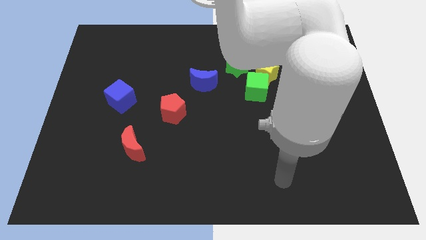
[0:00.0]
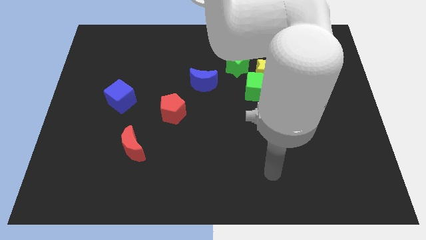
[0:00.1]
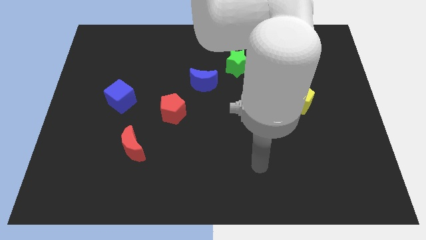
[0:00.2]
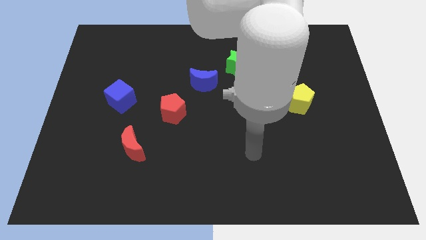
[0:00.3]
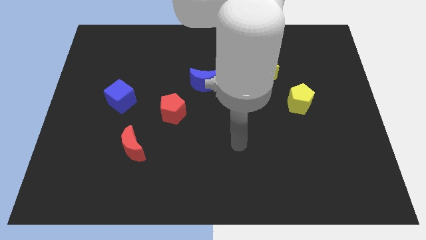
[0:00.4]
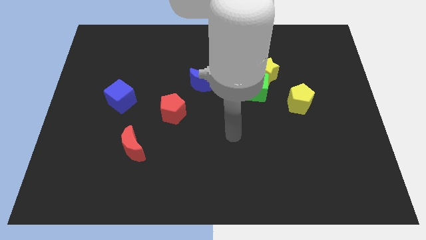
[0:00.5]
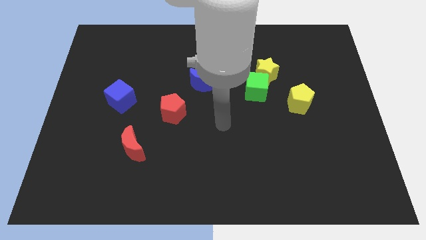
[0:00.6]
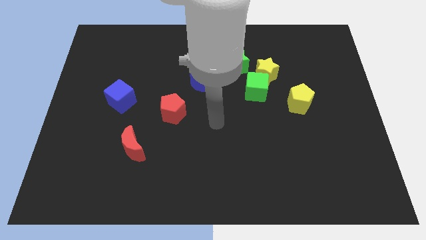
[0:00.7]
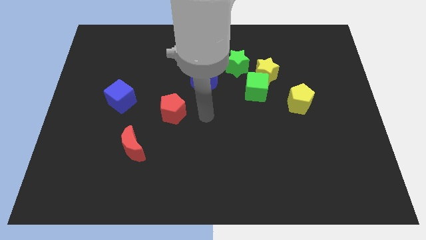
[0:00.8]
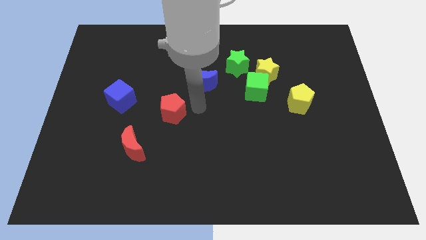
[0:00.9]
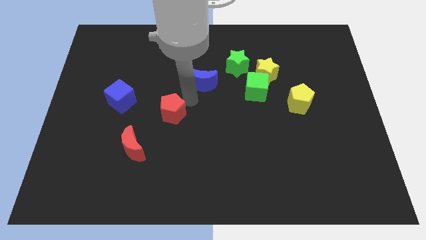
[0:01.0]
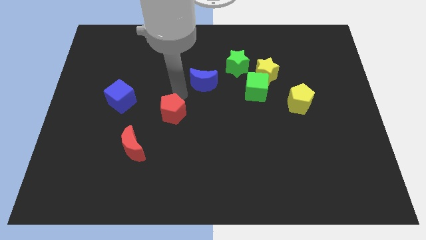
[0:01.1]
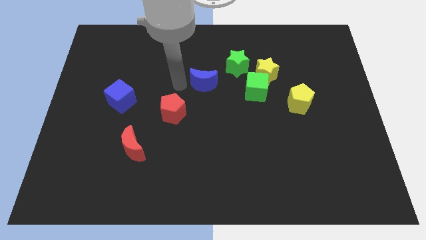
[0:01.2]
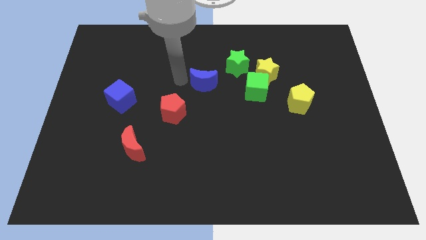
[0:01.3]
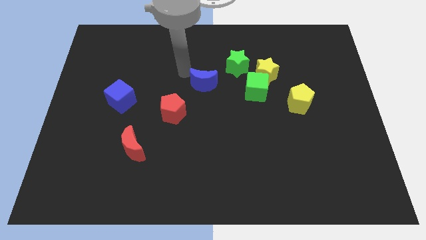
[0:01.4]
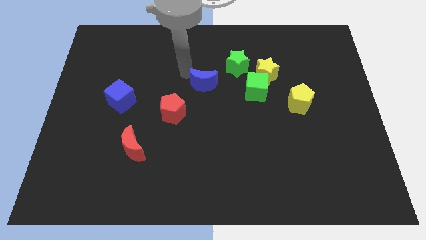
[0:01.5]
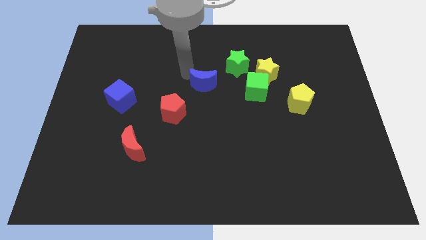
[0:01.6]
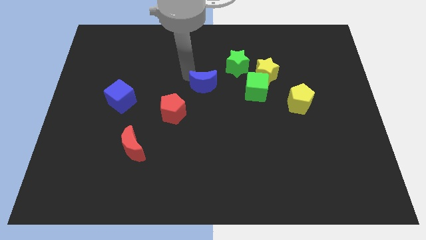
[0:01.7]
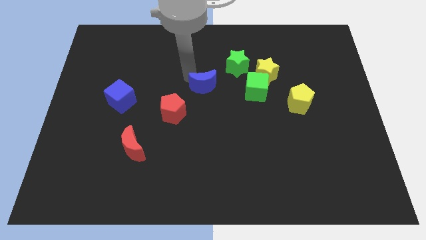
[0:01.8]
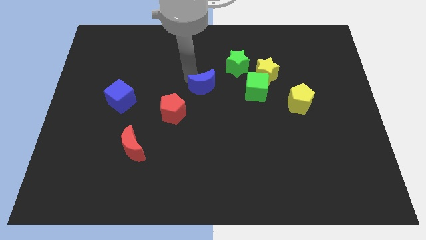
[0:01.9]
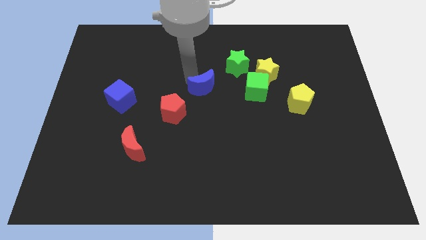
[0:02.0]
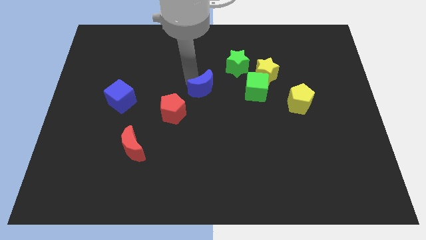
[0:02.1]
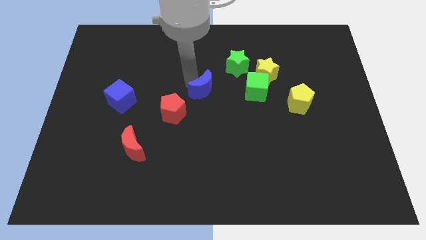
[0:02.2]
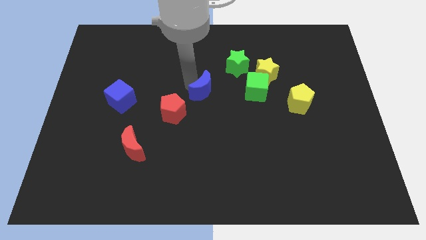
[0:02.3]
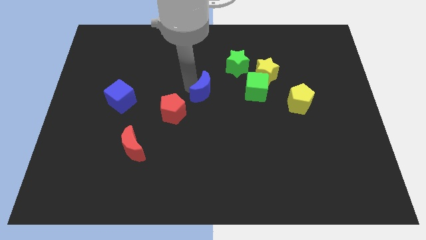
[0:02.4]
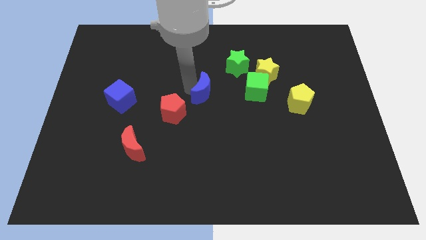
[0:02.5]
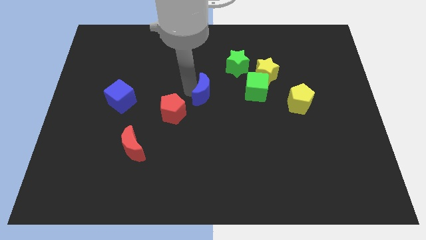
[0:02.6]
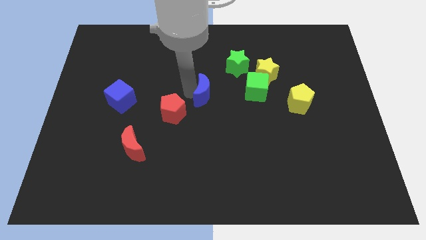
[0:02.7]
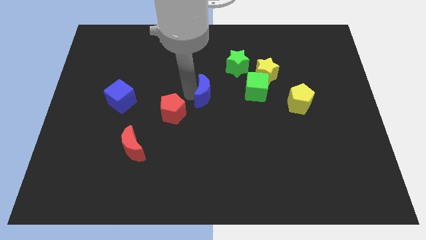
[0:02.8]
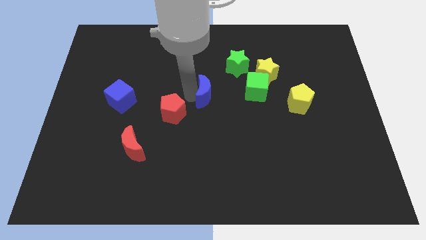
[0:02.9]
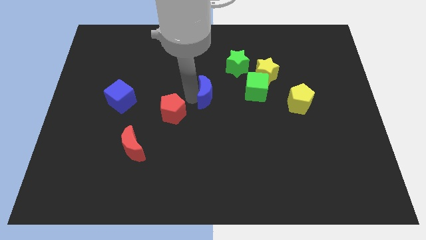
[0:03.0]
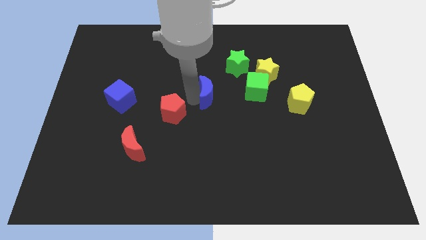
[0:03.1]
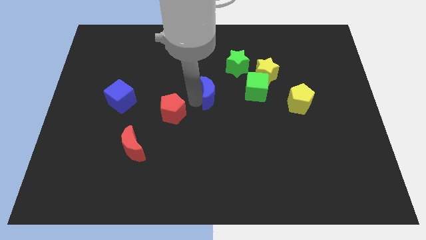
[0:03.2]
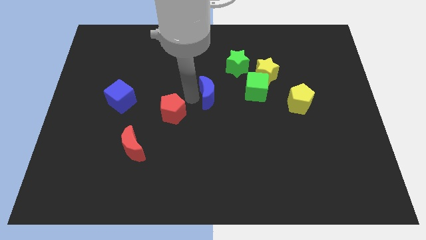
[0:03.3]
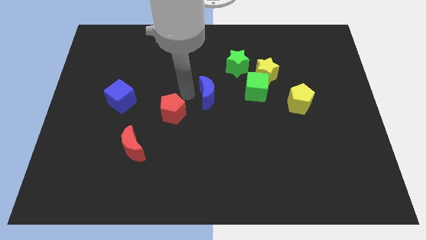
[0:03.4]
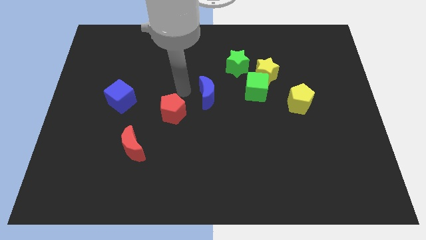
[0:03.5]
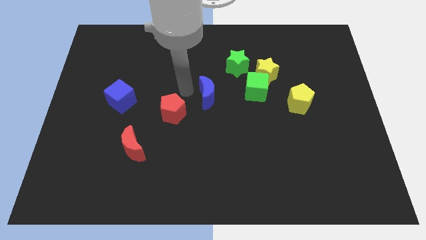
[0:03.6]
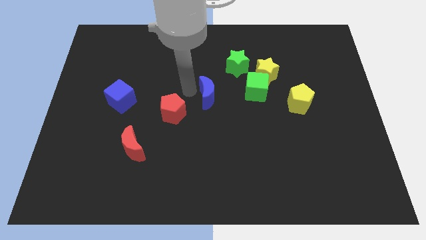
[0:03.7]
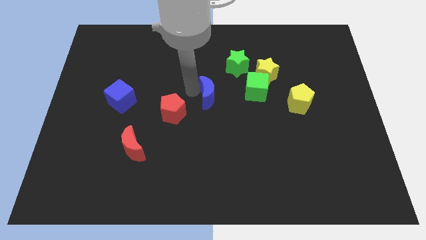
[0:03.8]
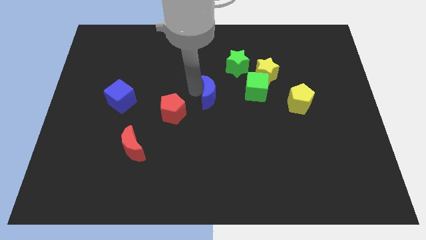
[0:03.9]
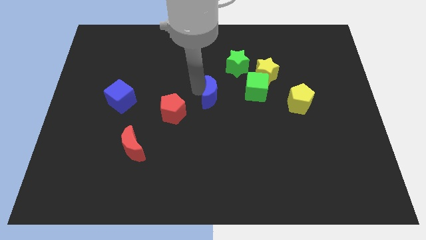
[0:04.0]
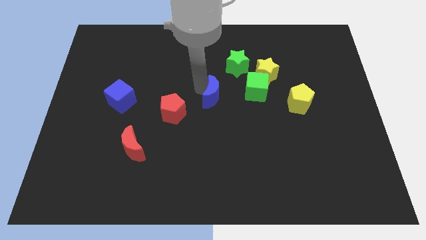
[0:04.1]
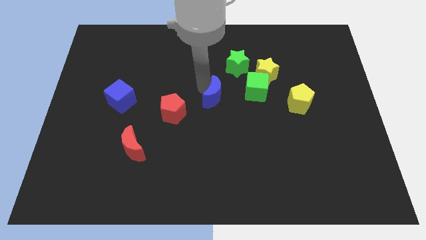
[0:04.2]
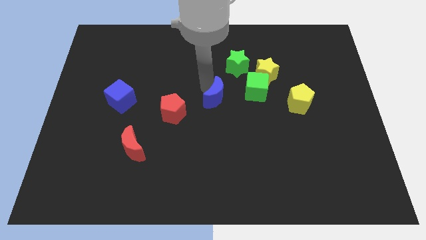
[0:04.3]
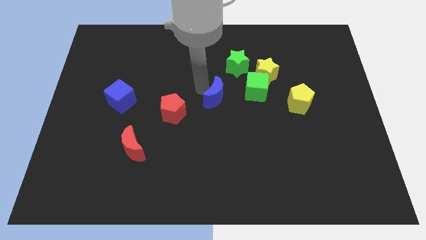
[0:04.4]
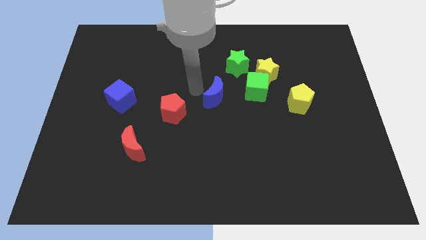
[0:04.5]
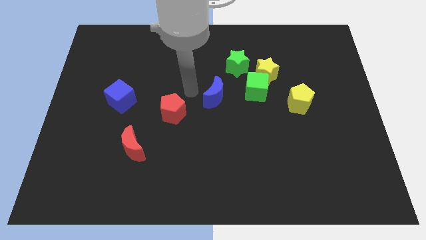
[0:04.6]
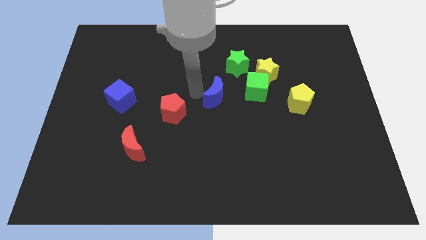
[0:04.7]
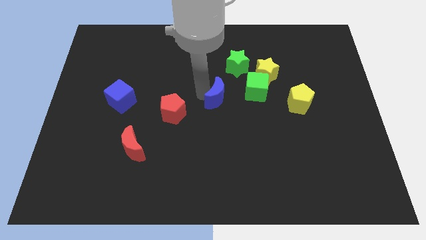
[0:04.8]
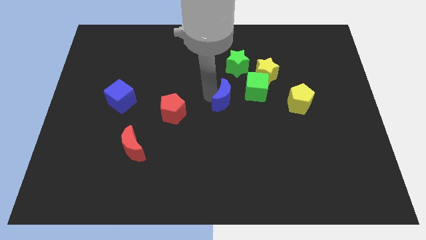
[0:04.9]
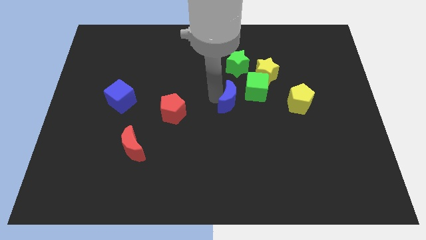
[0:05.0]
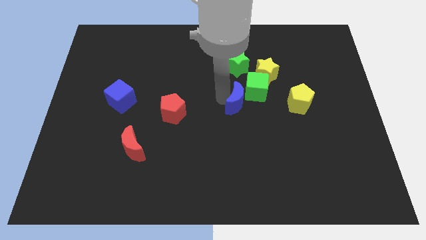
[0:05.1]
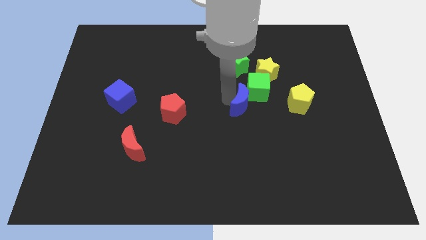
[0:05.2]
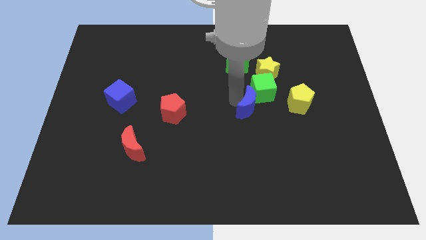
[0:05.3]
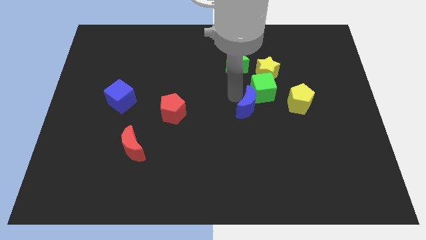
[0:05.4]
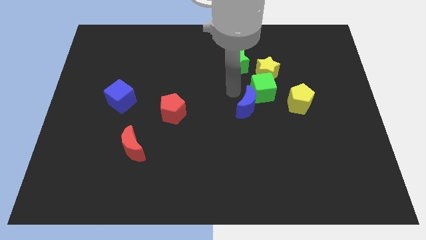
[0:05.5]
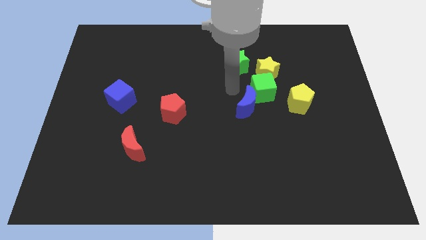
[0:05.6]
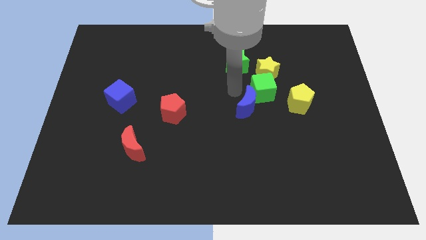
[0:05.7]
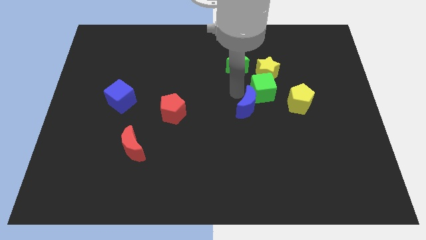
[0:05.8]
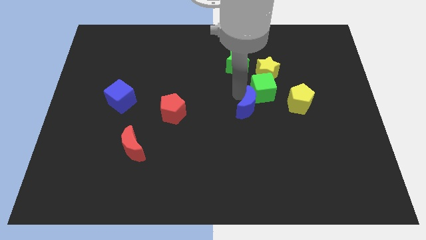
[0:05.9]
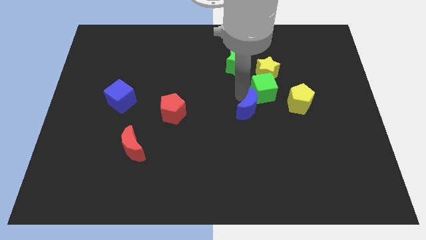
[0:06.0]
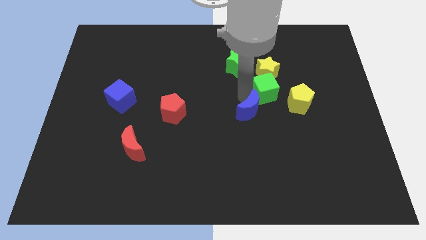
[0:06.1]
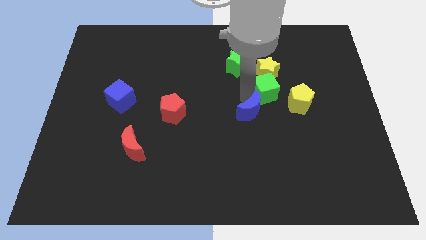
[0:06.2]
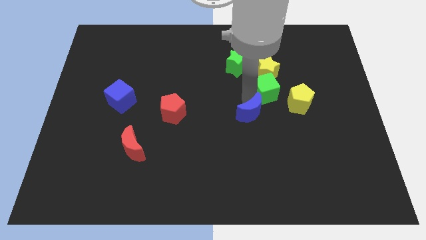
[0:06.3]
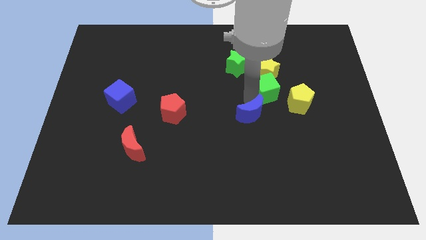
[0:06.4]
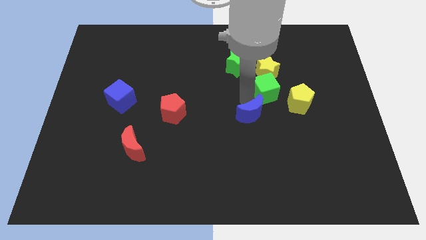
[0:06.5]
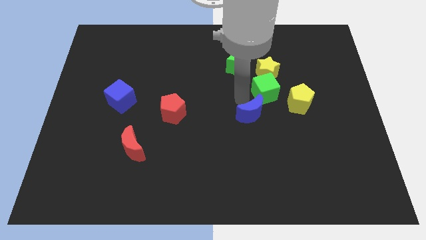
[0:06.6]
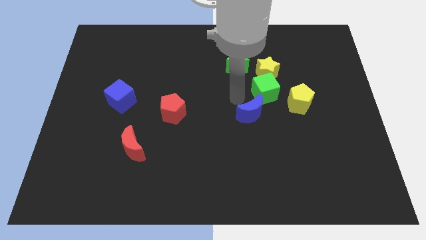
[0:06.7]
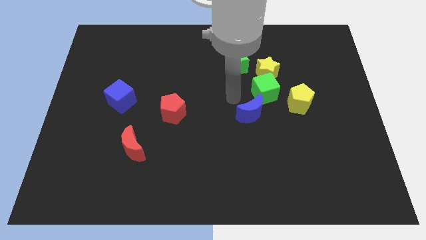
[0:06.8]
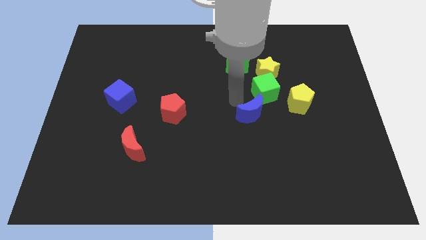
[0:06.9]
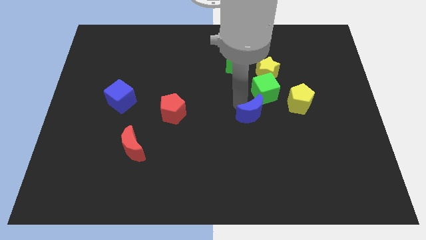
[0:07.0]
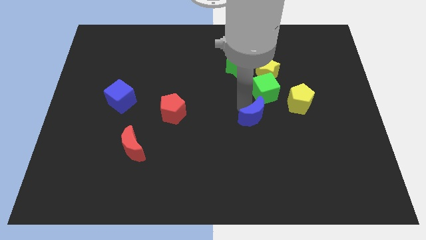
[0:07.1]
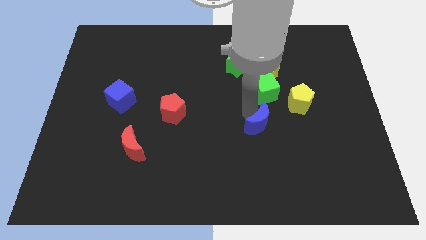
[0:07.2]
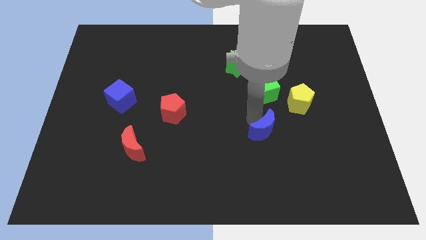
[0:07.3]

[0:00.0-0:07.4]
push the blue moon diagonally down and to the right

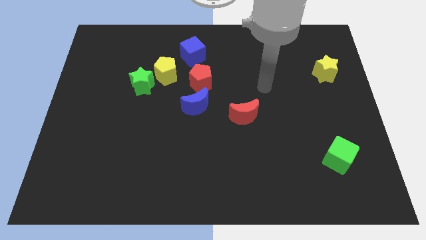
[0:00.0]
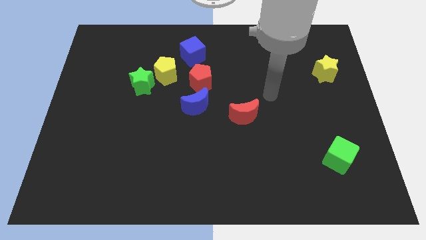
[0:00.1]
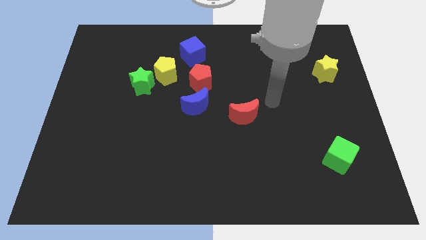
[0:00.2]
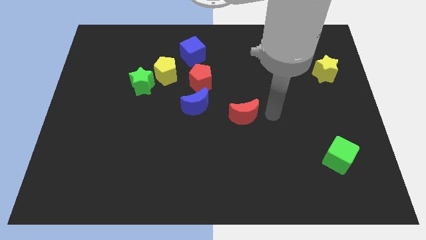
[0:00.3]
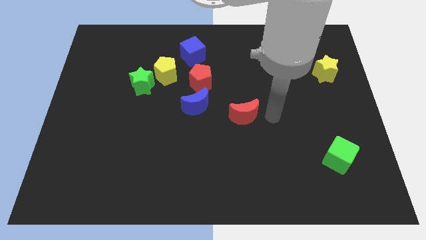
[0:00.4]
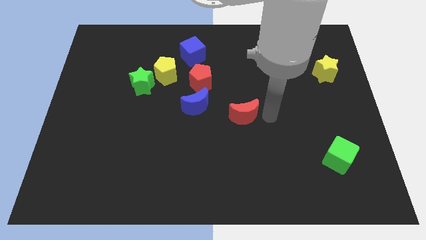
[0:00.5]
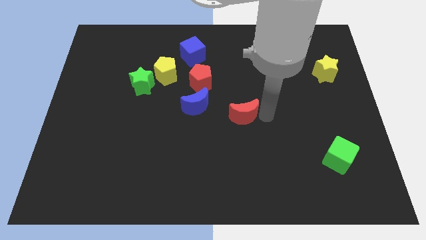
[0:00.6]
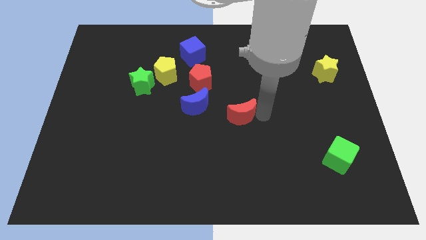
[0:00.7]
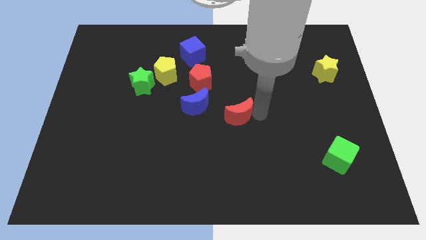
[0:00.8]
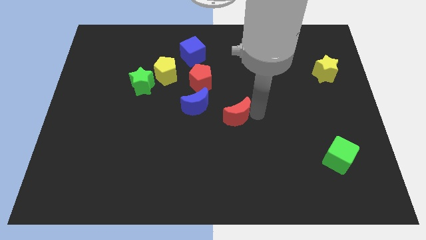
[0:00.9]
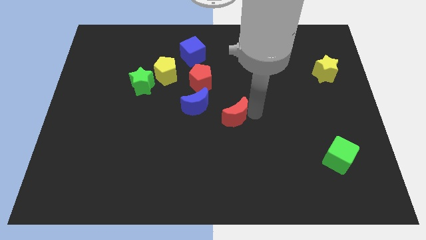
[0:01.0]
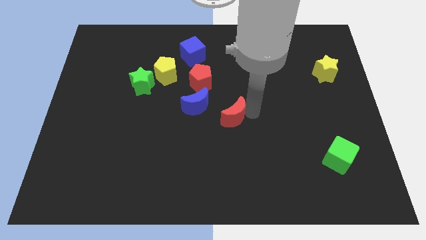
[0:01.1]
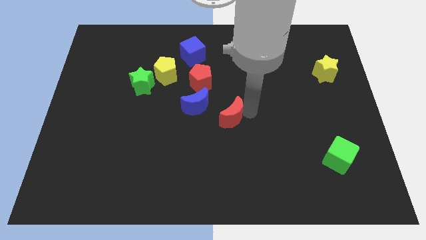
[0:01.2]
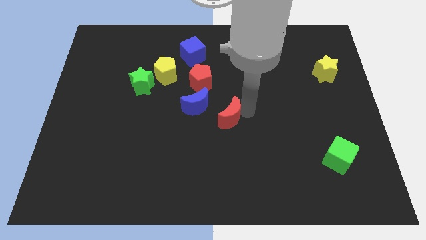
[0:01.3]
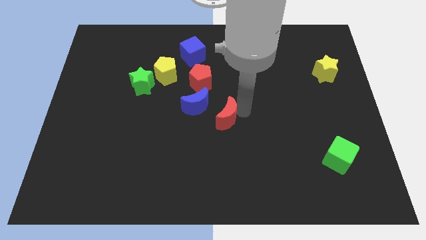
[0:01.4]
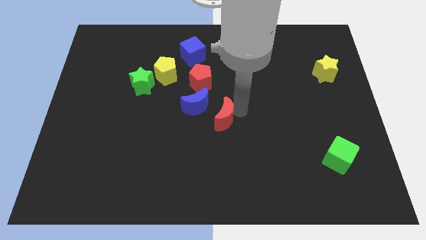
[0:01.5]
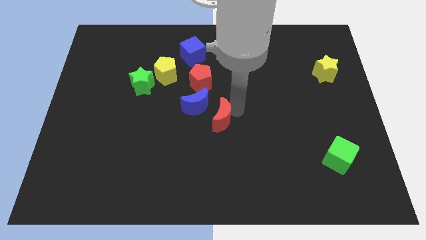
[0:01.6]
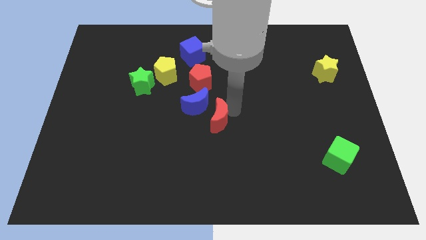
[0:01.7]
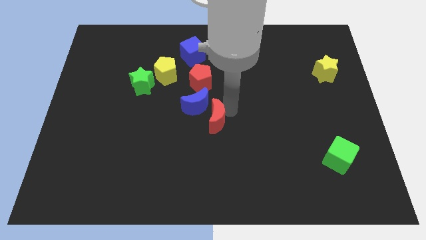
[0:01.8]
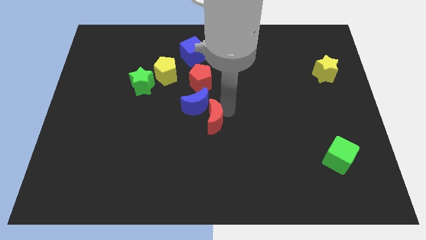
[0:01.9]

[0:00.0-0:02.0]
push the red moon a little to the left
